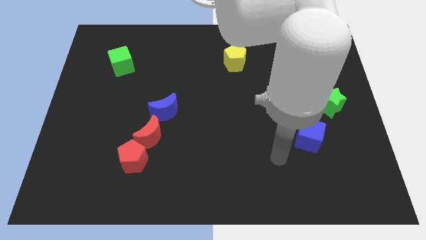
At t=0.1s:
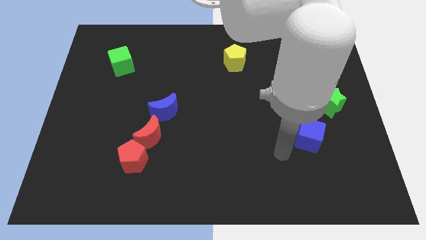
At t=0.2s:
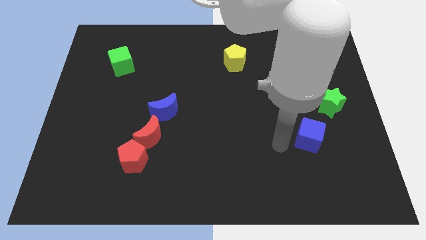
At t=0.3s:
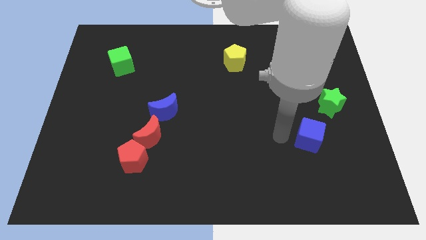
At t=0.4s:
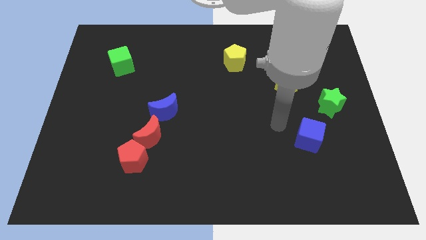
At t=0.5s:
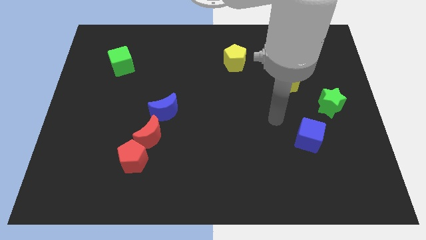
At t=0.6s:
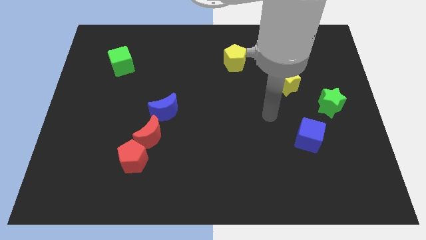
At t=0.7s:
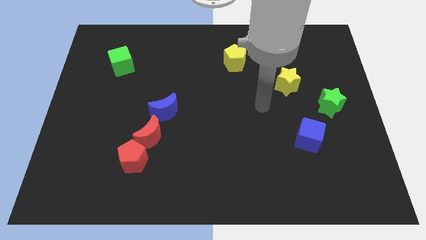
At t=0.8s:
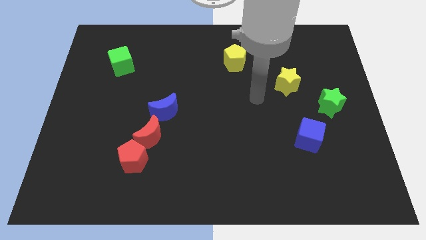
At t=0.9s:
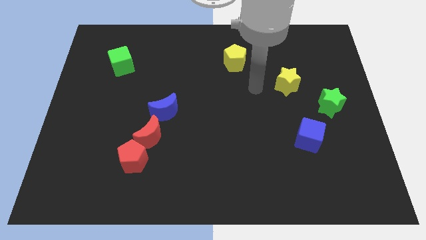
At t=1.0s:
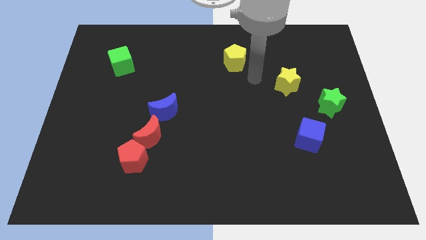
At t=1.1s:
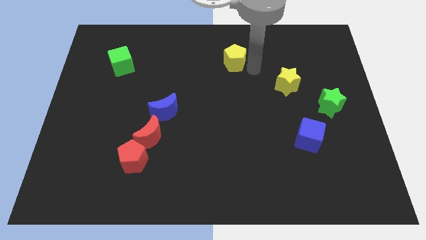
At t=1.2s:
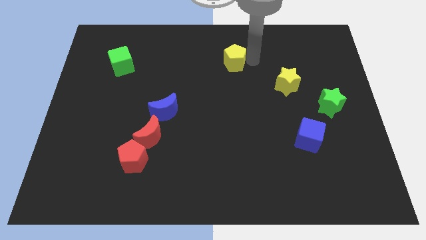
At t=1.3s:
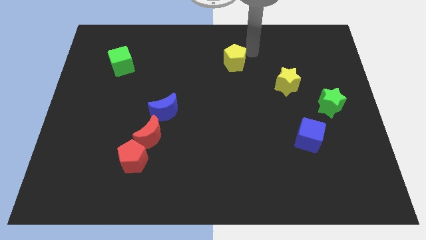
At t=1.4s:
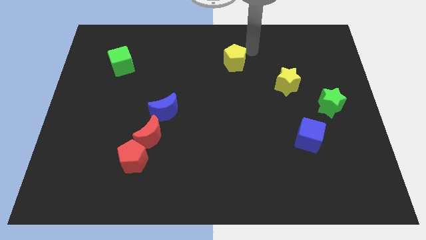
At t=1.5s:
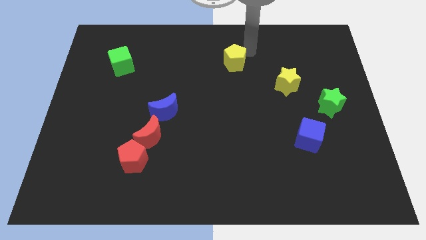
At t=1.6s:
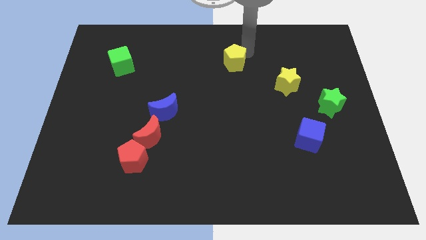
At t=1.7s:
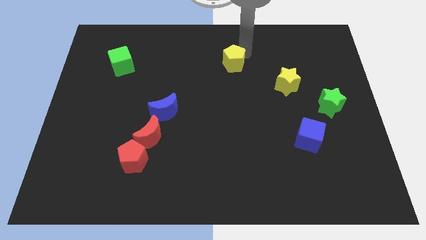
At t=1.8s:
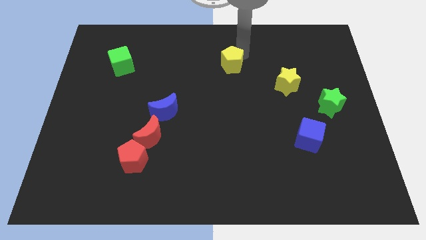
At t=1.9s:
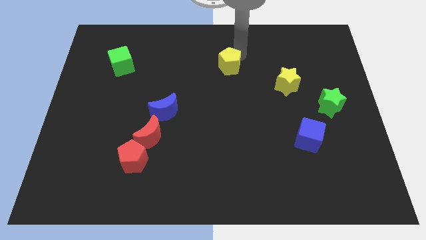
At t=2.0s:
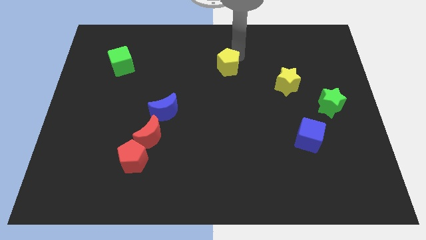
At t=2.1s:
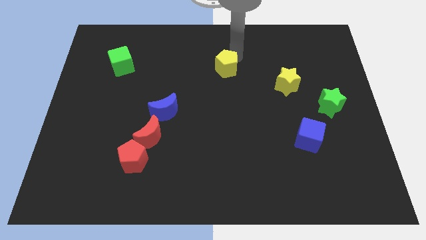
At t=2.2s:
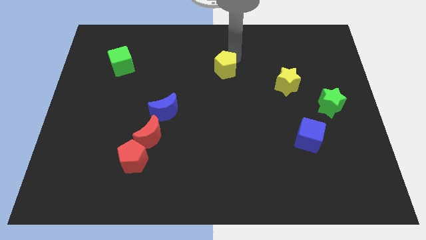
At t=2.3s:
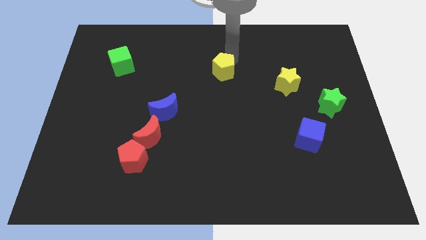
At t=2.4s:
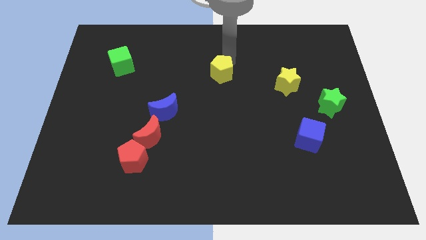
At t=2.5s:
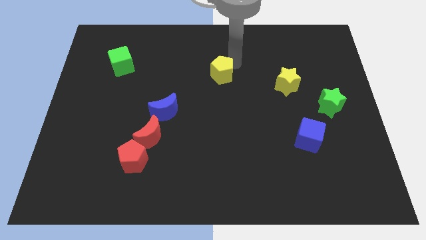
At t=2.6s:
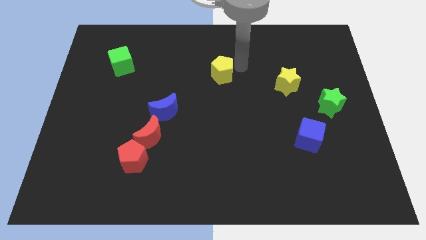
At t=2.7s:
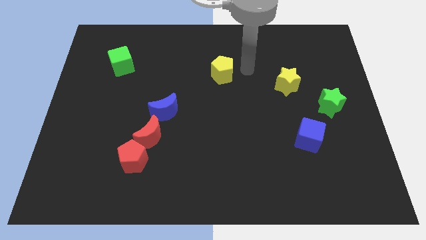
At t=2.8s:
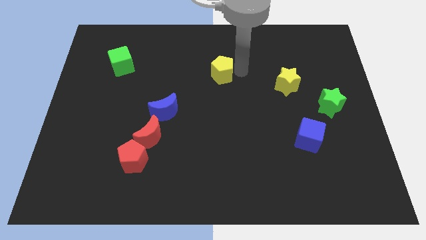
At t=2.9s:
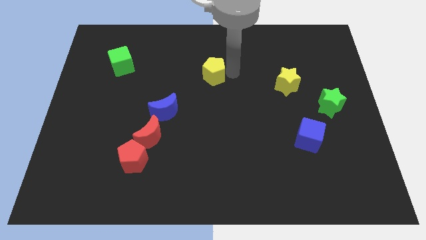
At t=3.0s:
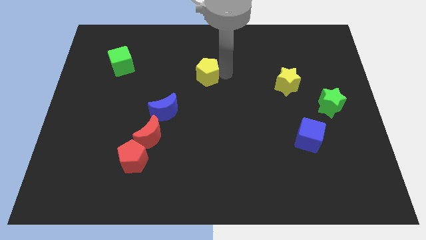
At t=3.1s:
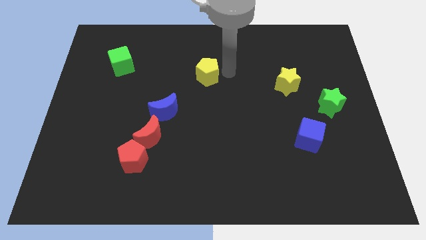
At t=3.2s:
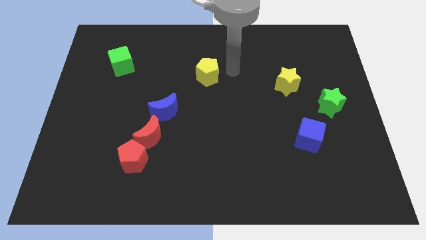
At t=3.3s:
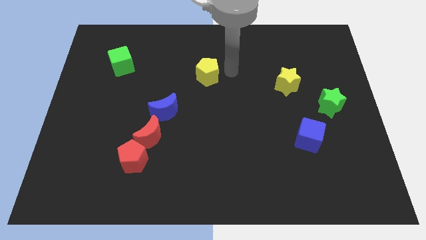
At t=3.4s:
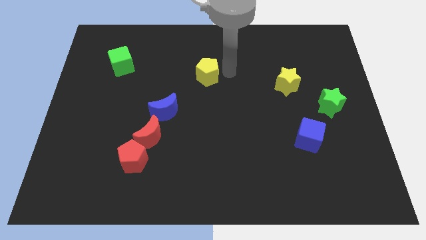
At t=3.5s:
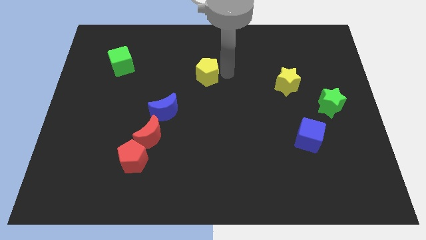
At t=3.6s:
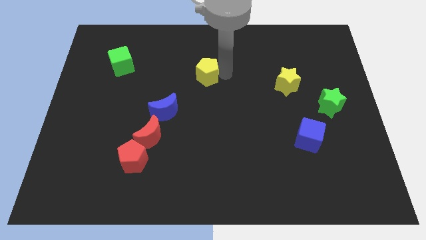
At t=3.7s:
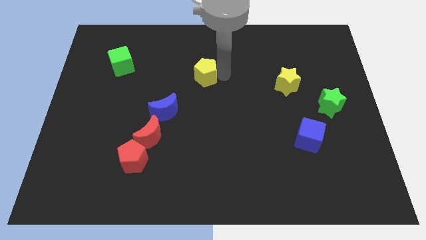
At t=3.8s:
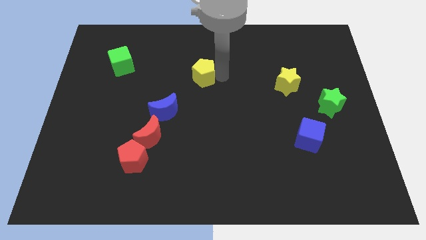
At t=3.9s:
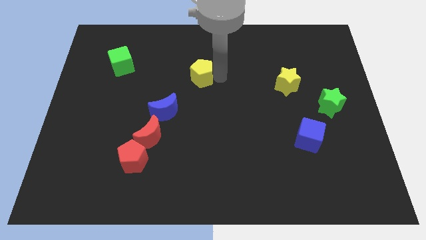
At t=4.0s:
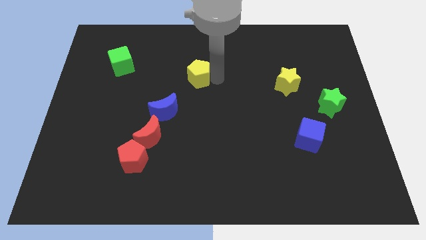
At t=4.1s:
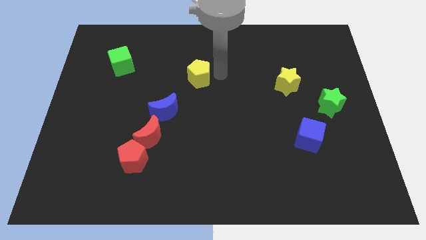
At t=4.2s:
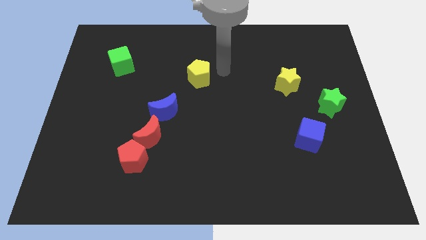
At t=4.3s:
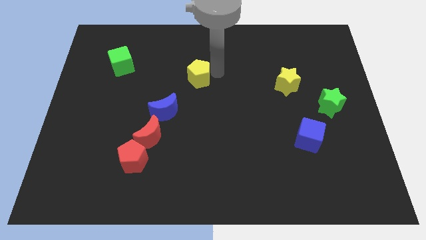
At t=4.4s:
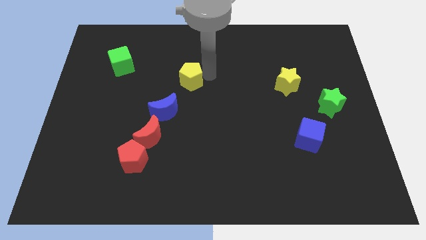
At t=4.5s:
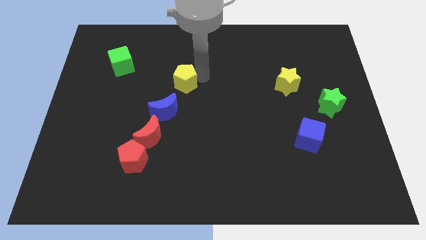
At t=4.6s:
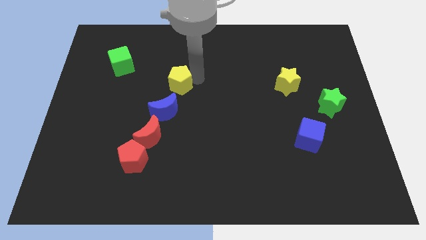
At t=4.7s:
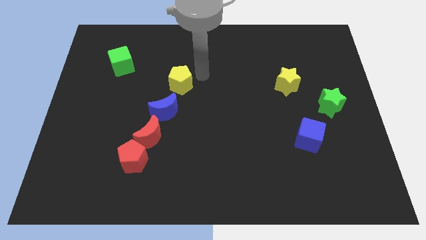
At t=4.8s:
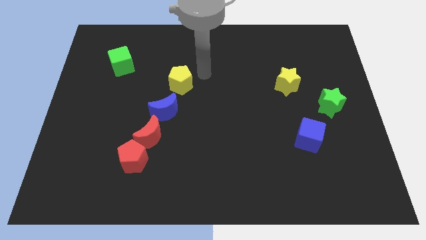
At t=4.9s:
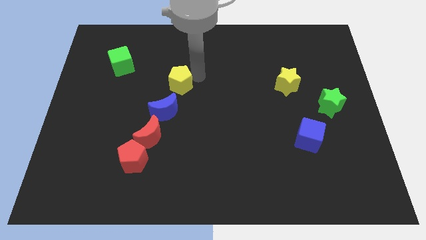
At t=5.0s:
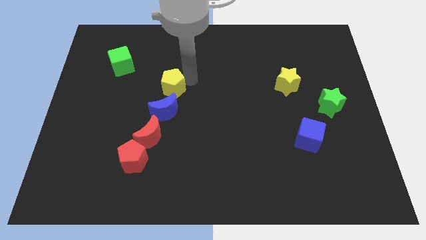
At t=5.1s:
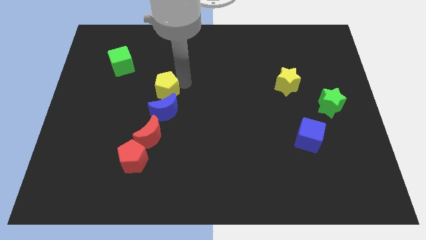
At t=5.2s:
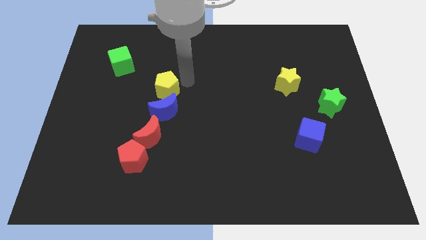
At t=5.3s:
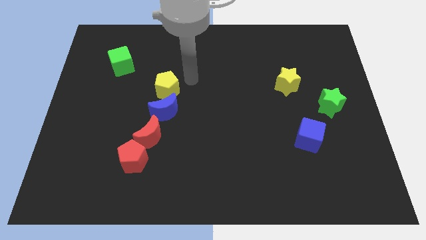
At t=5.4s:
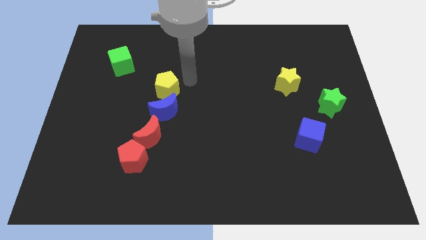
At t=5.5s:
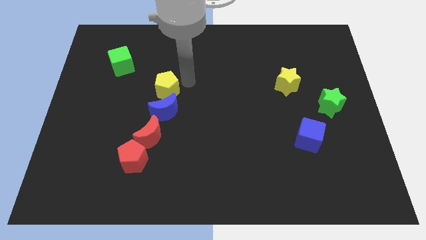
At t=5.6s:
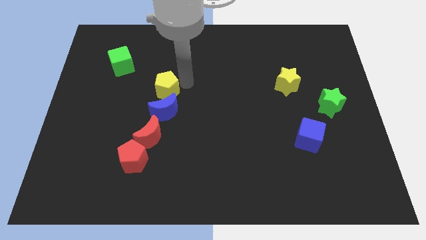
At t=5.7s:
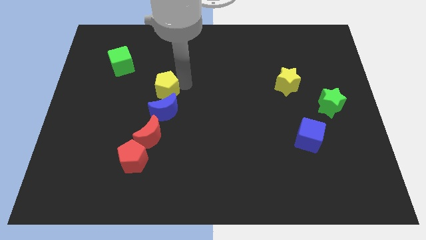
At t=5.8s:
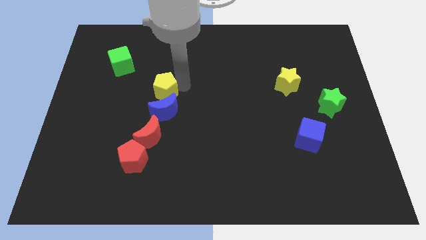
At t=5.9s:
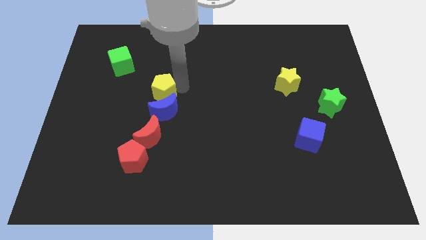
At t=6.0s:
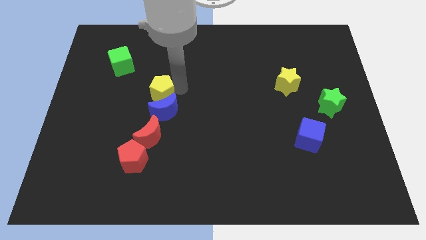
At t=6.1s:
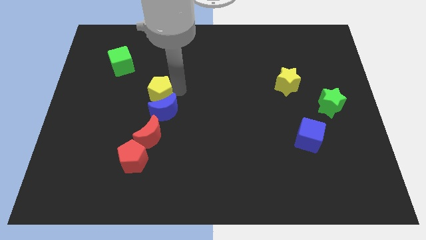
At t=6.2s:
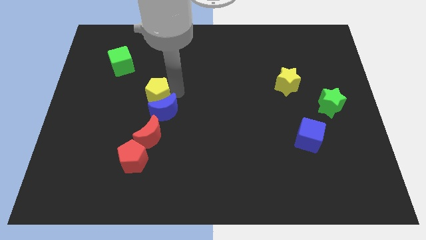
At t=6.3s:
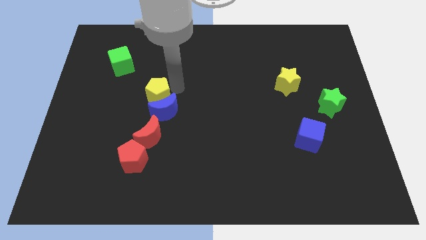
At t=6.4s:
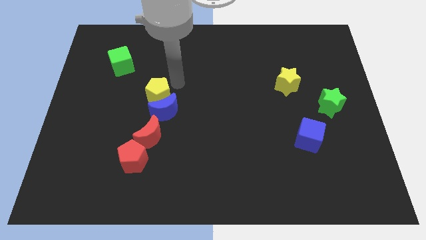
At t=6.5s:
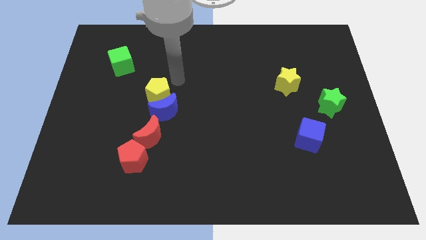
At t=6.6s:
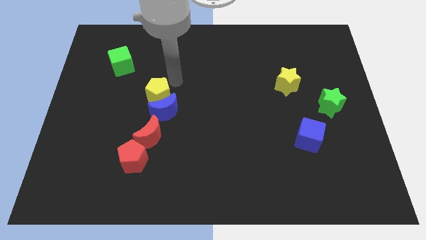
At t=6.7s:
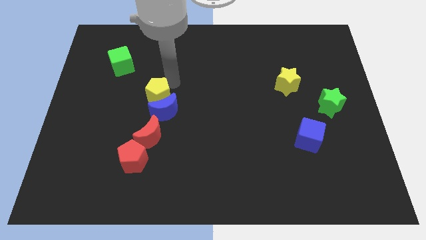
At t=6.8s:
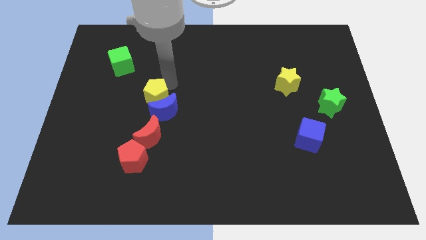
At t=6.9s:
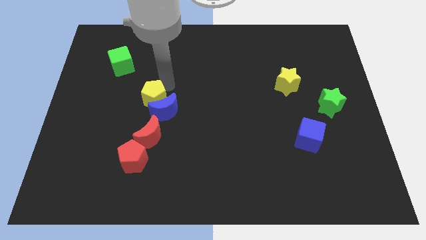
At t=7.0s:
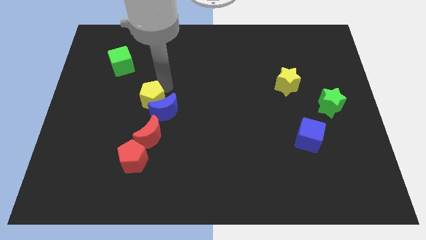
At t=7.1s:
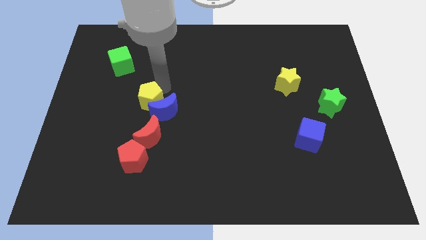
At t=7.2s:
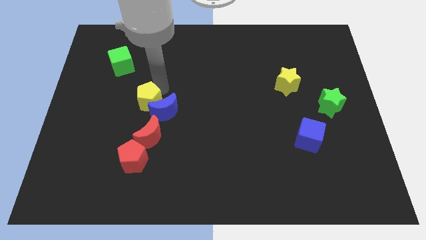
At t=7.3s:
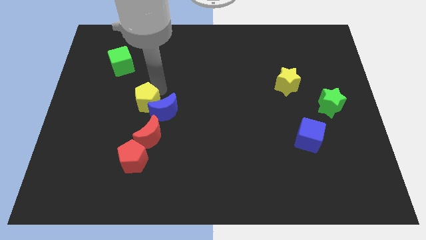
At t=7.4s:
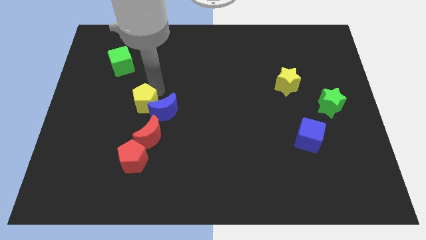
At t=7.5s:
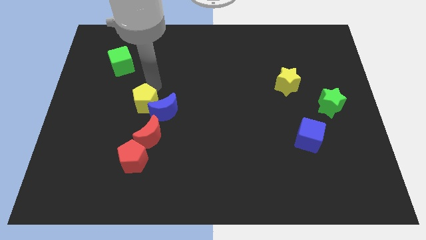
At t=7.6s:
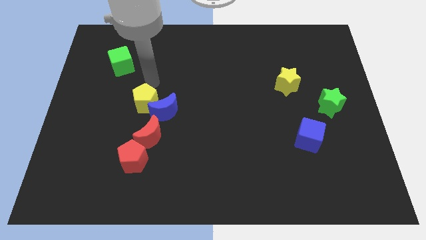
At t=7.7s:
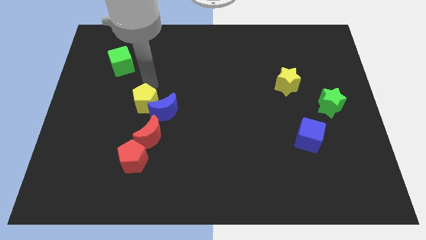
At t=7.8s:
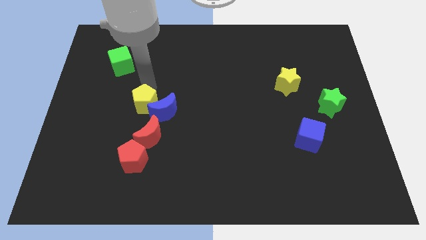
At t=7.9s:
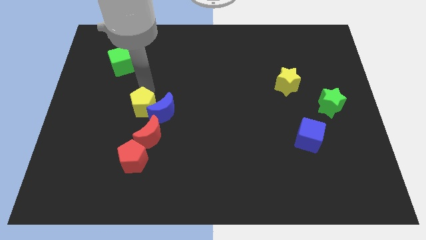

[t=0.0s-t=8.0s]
put the yellow pentagon to the bottom left of the blue moon
